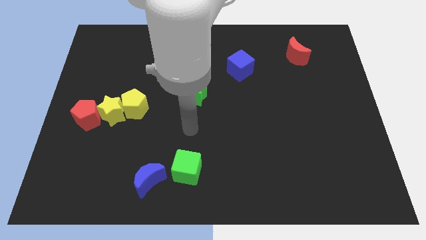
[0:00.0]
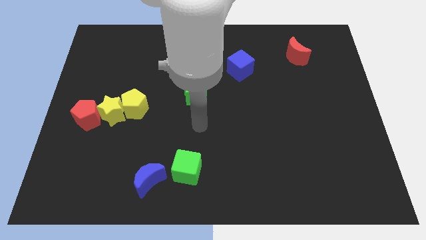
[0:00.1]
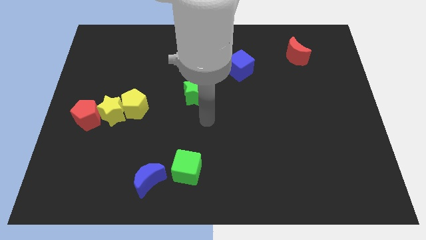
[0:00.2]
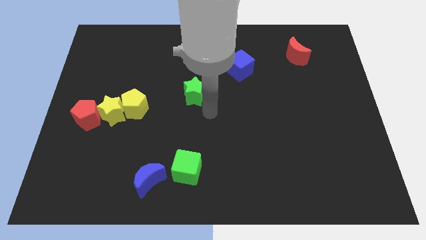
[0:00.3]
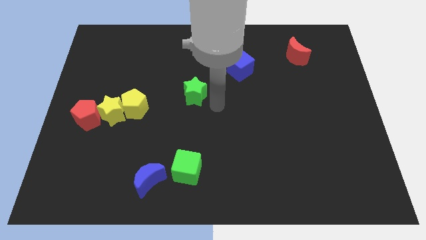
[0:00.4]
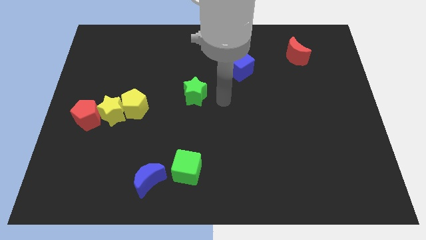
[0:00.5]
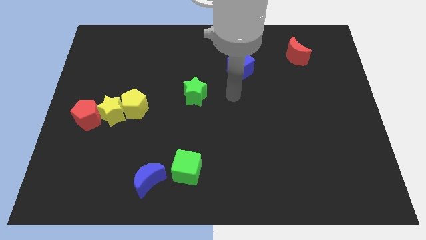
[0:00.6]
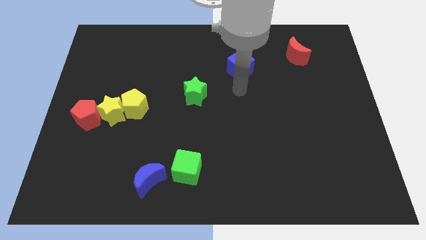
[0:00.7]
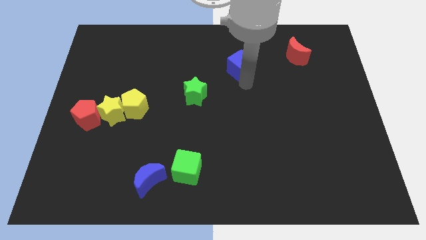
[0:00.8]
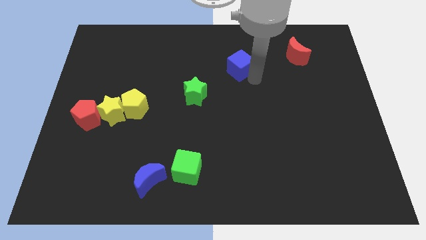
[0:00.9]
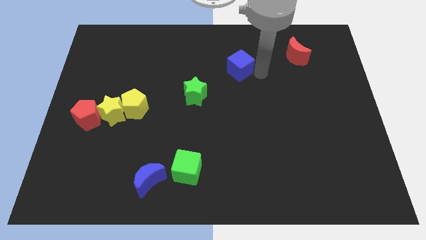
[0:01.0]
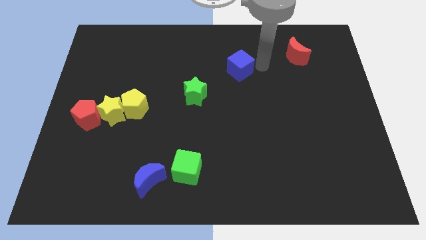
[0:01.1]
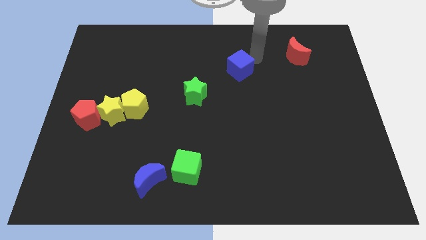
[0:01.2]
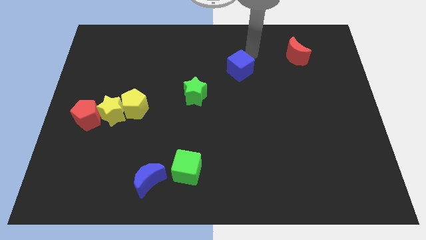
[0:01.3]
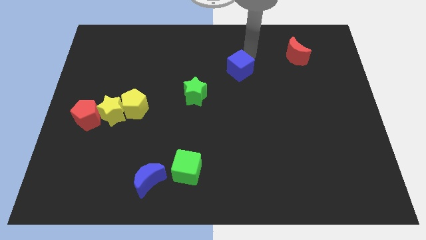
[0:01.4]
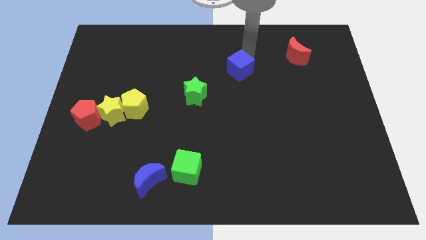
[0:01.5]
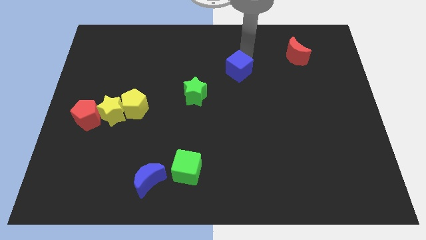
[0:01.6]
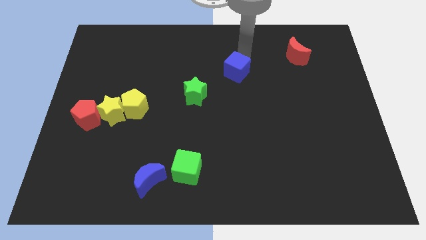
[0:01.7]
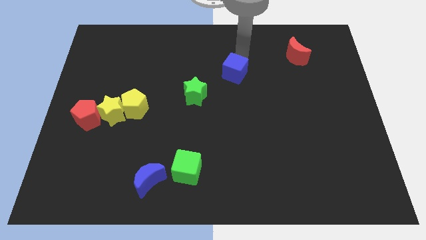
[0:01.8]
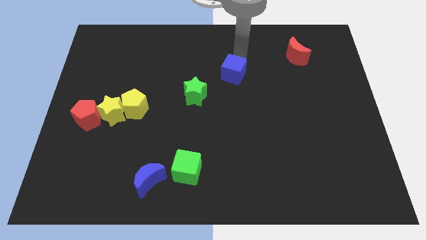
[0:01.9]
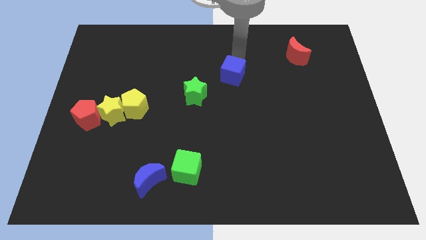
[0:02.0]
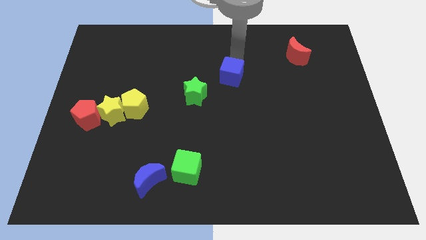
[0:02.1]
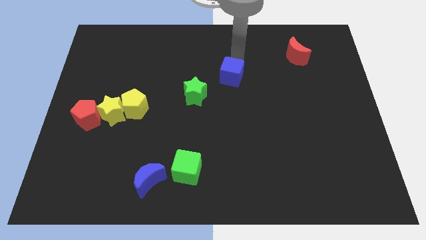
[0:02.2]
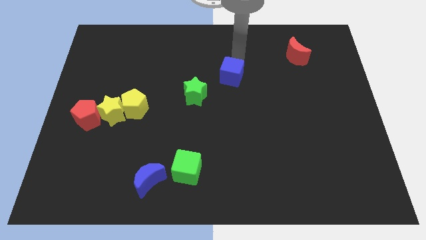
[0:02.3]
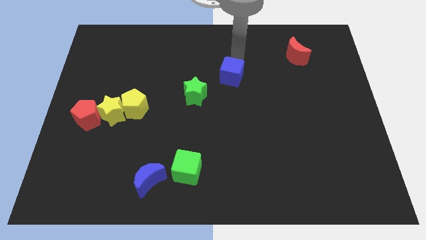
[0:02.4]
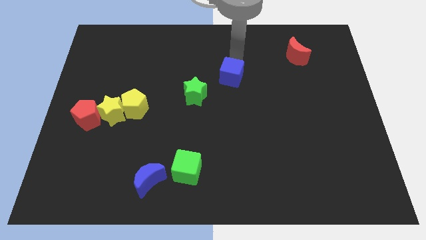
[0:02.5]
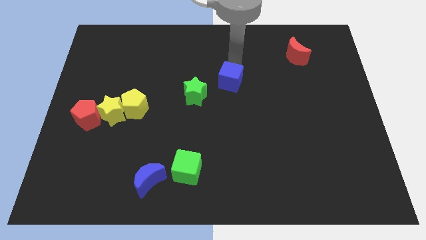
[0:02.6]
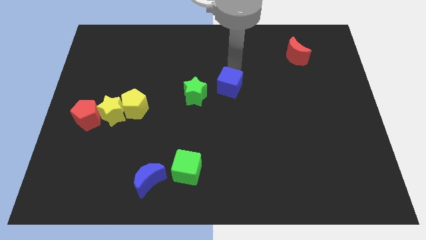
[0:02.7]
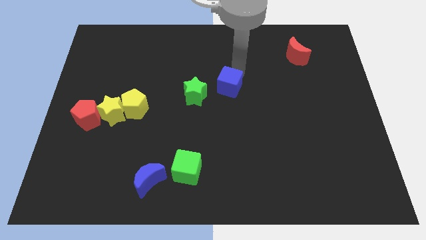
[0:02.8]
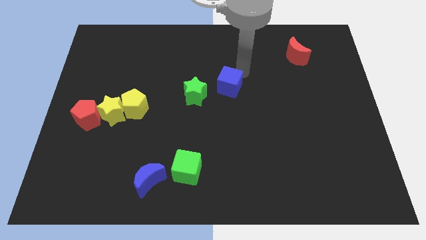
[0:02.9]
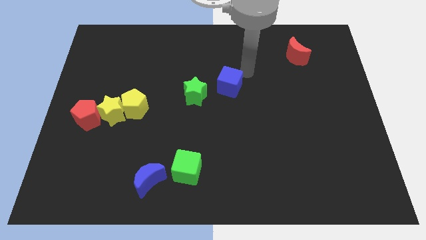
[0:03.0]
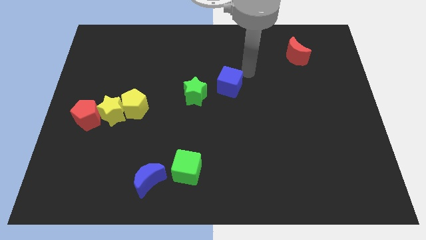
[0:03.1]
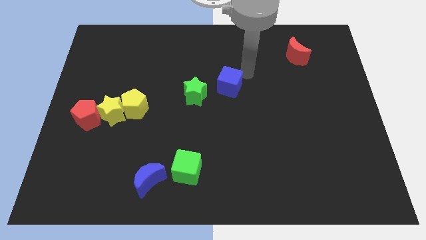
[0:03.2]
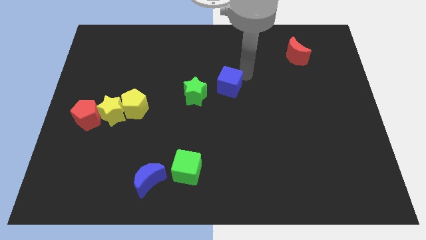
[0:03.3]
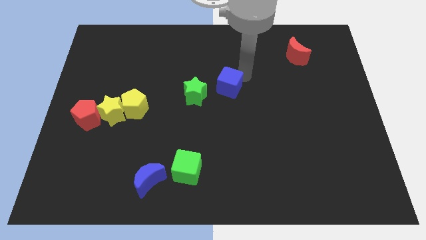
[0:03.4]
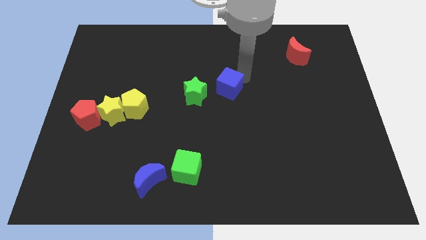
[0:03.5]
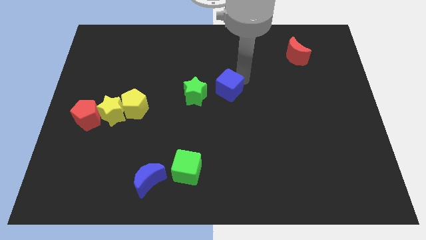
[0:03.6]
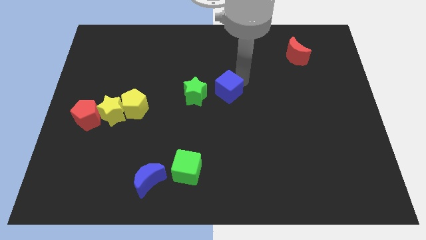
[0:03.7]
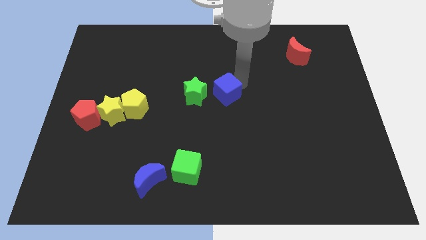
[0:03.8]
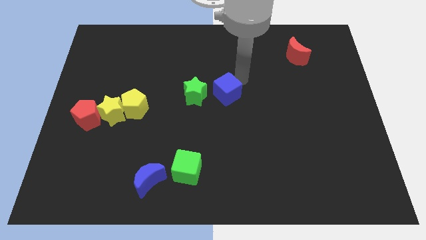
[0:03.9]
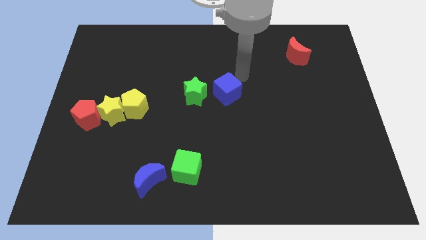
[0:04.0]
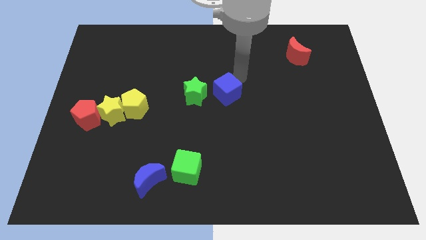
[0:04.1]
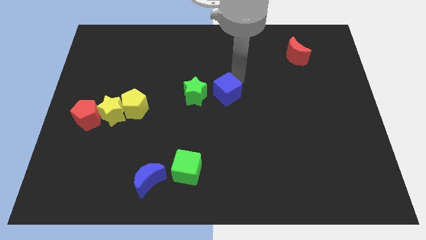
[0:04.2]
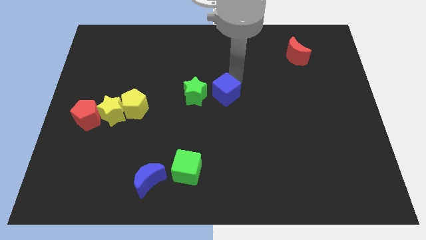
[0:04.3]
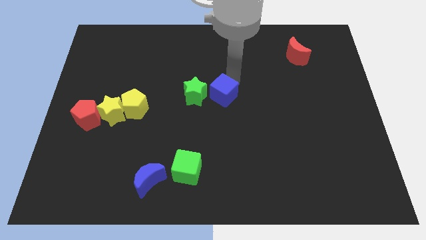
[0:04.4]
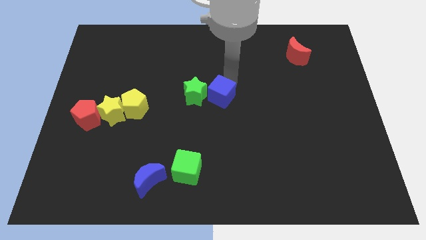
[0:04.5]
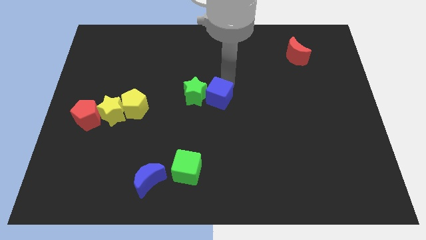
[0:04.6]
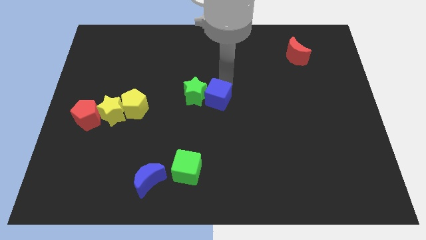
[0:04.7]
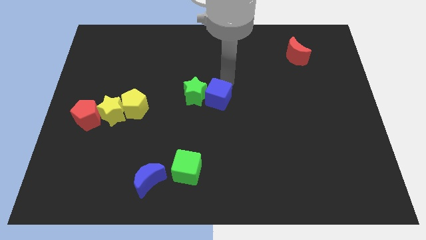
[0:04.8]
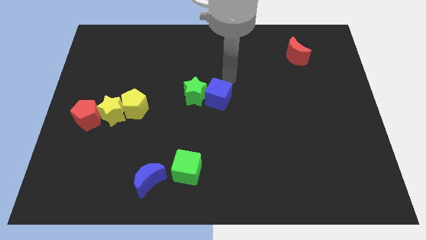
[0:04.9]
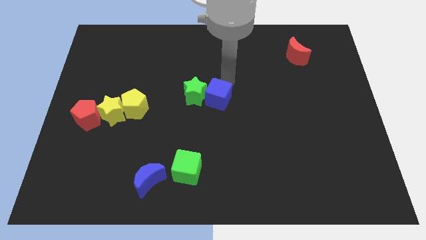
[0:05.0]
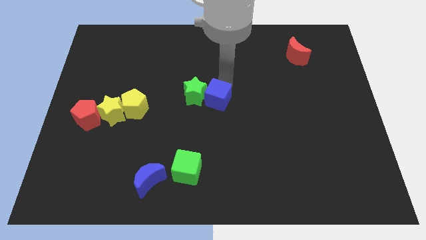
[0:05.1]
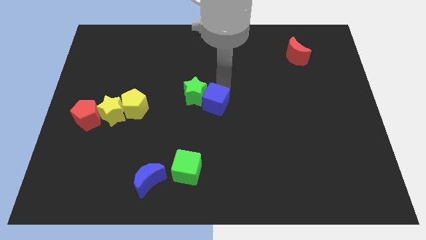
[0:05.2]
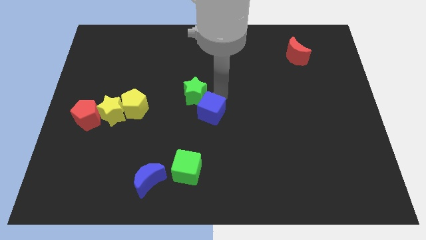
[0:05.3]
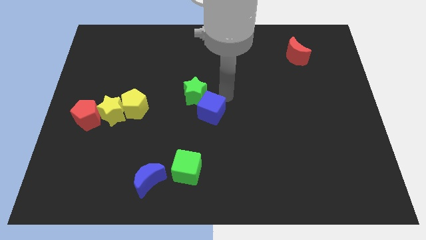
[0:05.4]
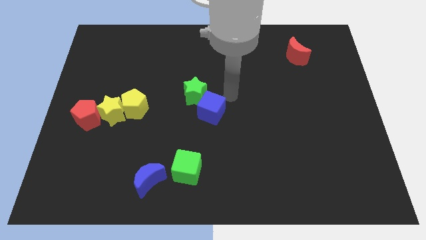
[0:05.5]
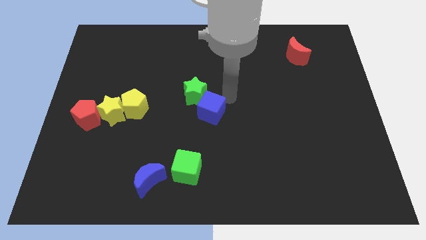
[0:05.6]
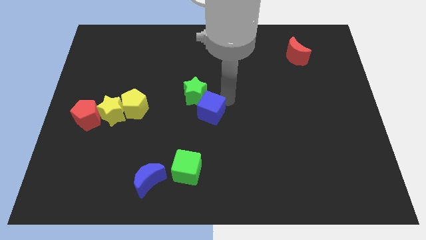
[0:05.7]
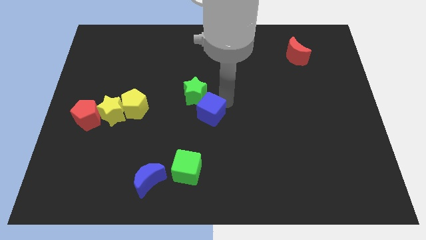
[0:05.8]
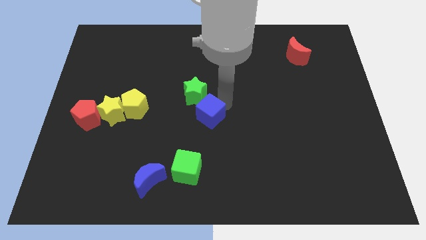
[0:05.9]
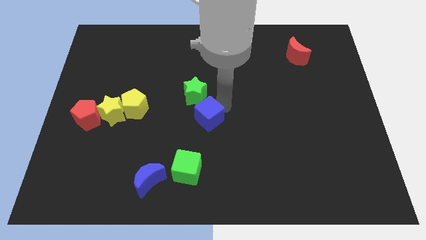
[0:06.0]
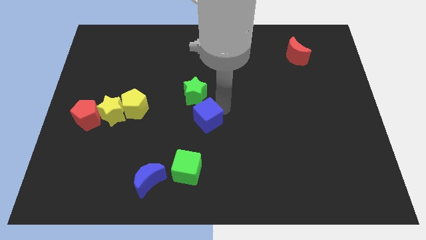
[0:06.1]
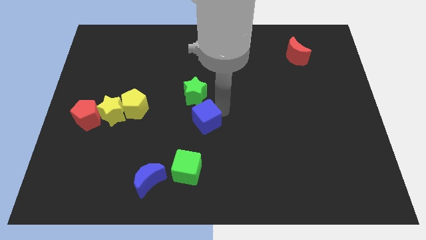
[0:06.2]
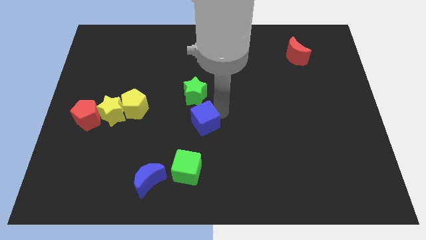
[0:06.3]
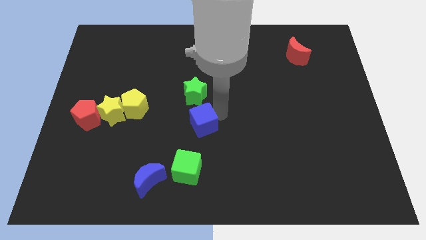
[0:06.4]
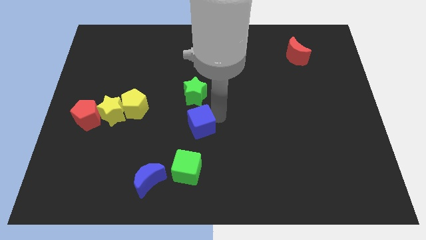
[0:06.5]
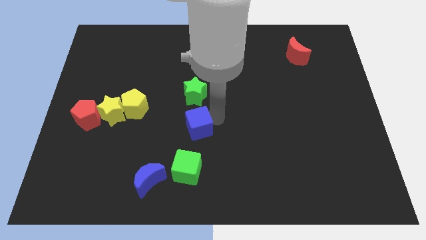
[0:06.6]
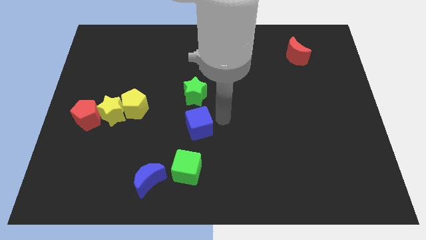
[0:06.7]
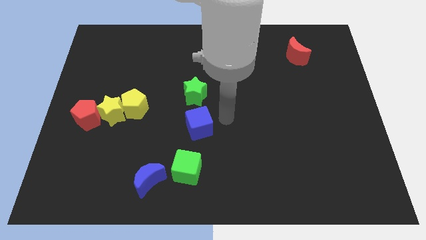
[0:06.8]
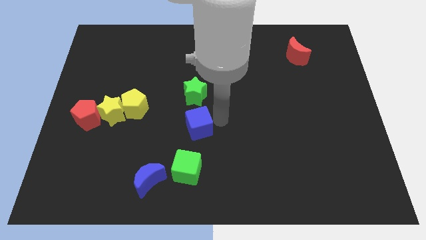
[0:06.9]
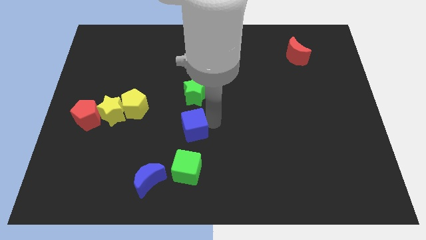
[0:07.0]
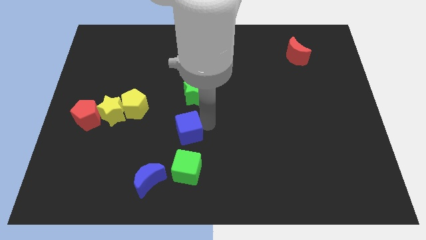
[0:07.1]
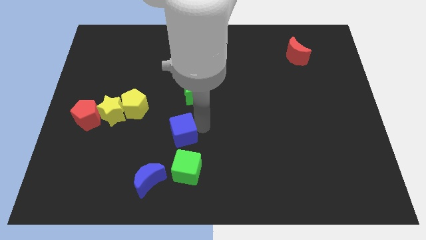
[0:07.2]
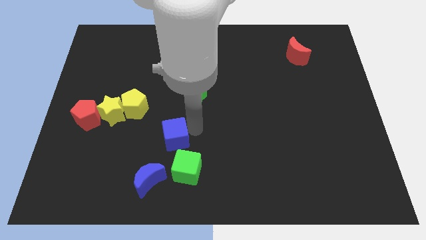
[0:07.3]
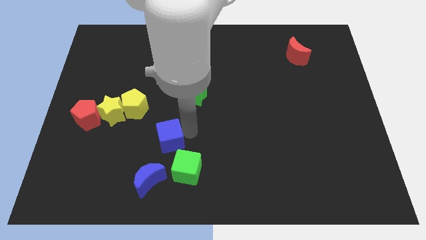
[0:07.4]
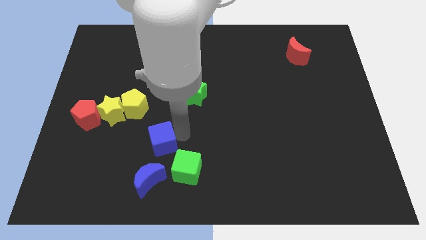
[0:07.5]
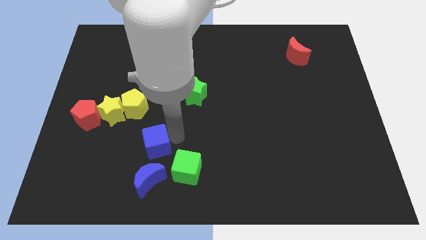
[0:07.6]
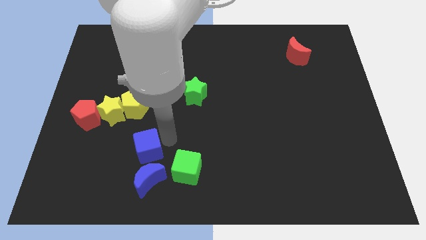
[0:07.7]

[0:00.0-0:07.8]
slide the blue cube to the top left of the blue moon
